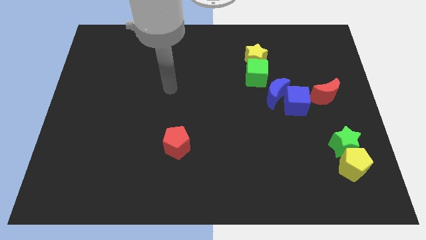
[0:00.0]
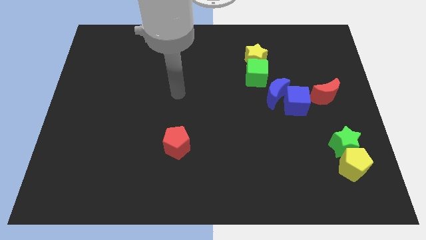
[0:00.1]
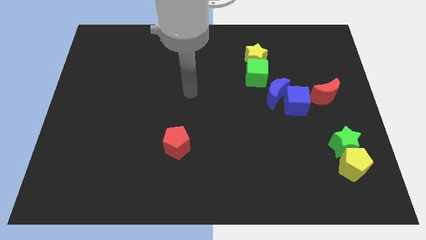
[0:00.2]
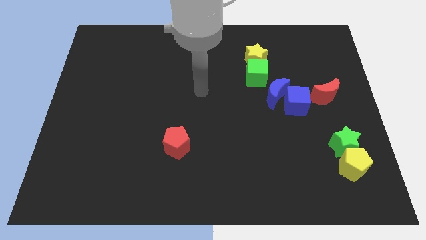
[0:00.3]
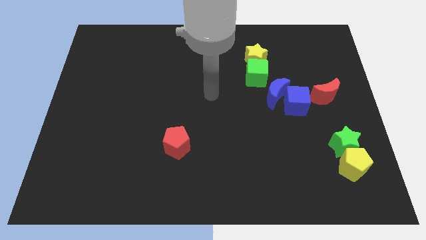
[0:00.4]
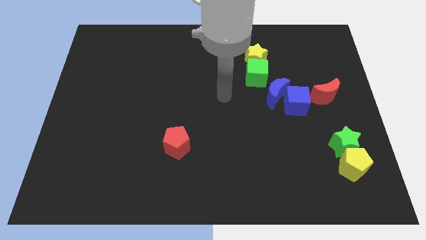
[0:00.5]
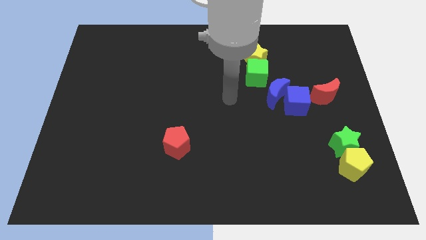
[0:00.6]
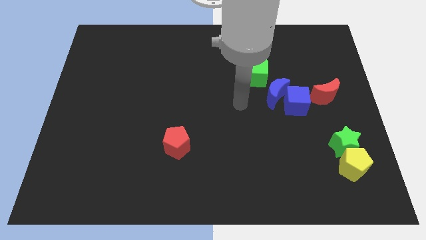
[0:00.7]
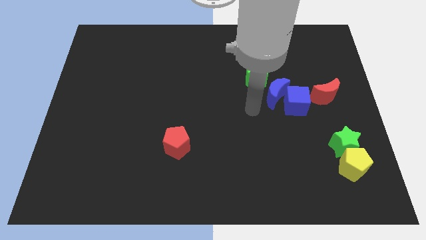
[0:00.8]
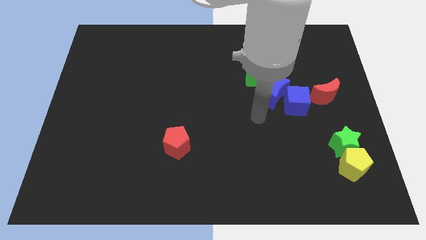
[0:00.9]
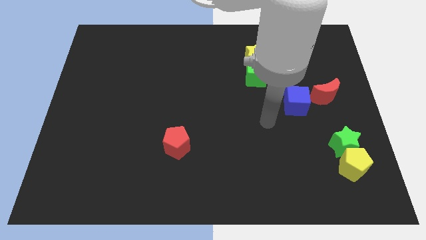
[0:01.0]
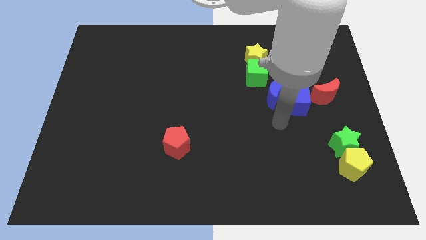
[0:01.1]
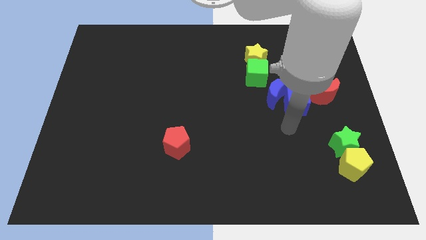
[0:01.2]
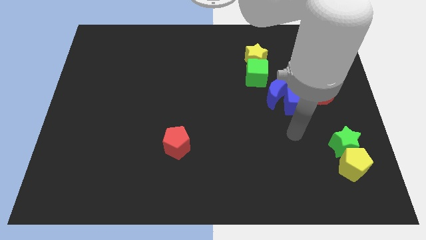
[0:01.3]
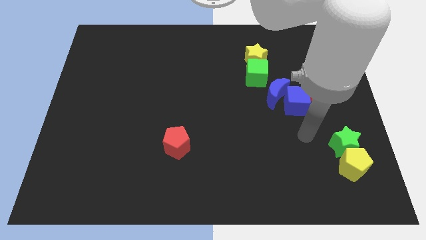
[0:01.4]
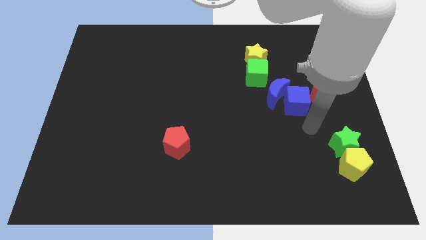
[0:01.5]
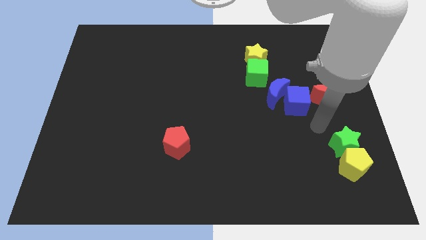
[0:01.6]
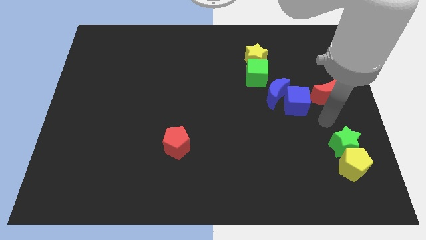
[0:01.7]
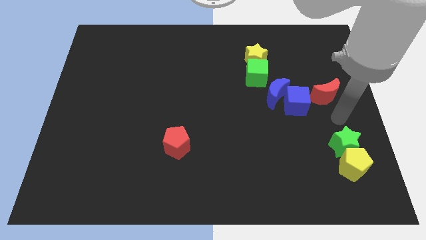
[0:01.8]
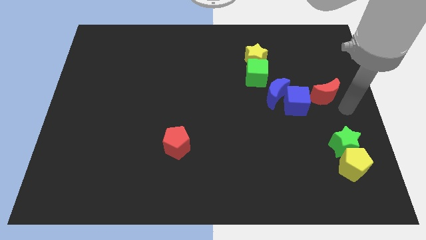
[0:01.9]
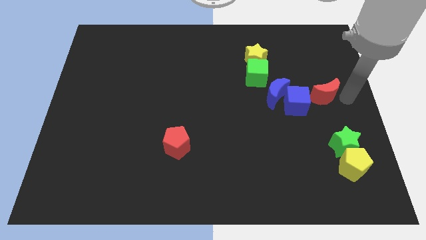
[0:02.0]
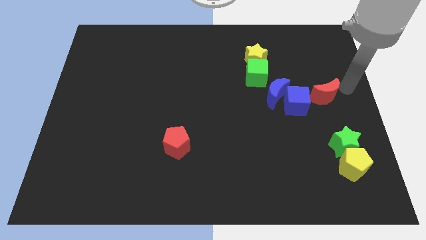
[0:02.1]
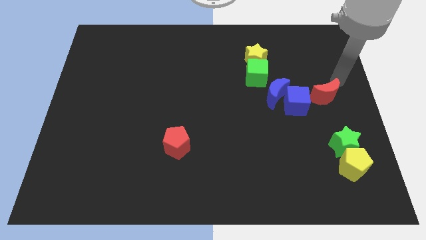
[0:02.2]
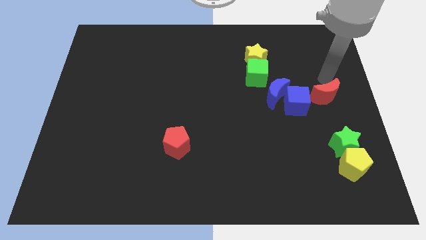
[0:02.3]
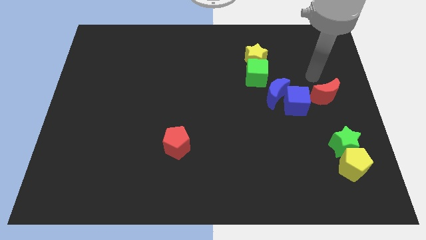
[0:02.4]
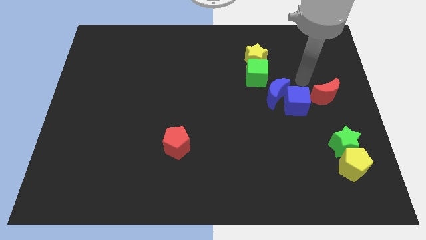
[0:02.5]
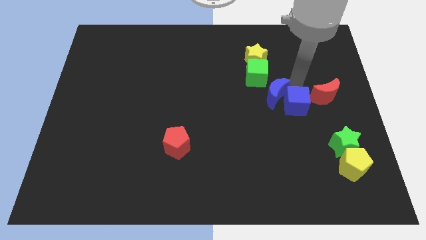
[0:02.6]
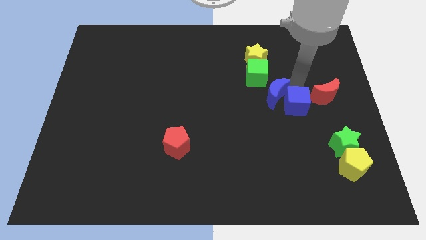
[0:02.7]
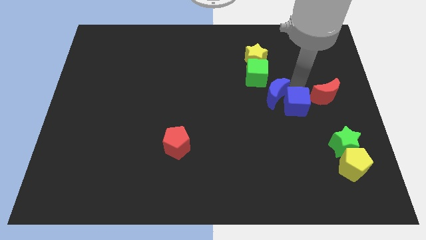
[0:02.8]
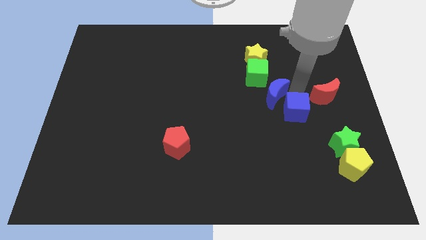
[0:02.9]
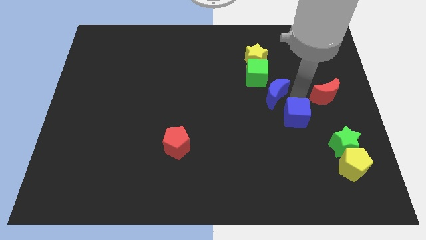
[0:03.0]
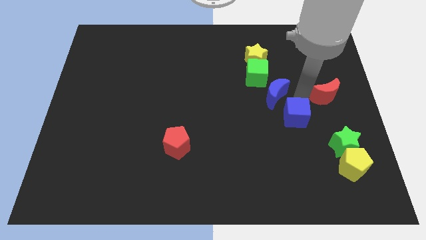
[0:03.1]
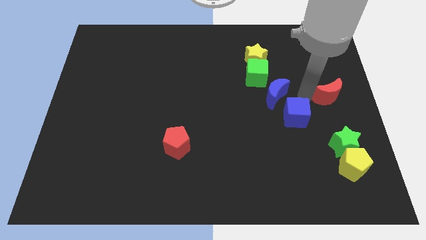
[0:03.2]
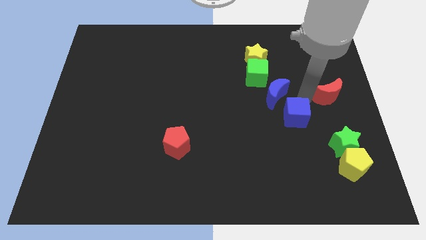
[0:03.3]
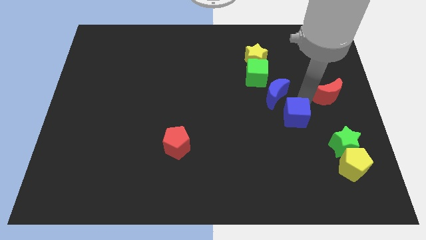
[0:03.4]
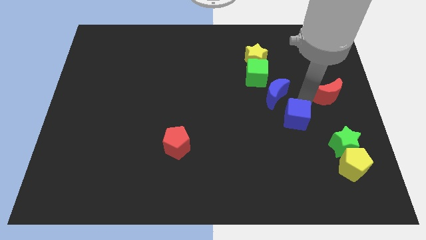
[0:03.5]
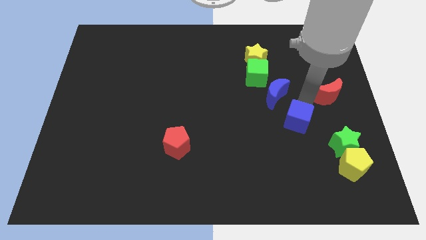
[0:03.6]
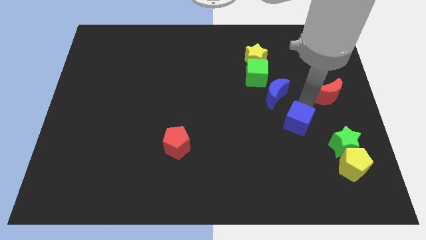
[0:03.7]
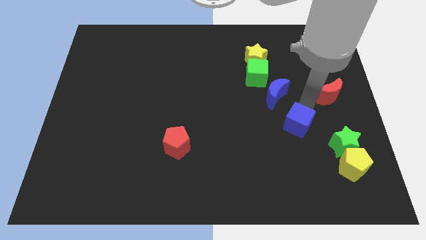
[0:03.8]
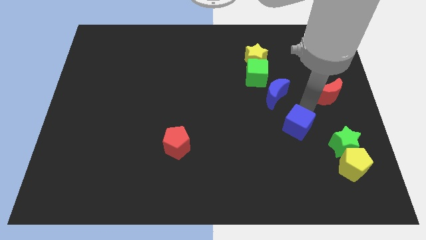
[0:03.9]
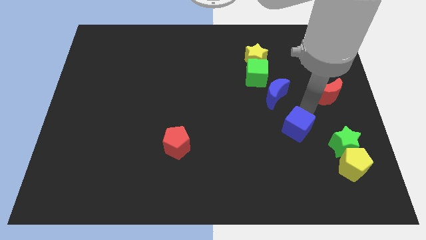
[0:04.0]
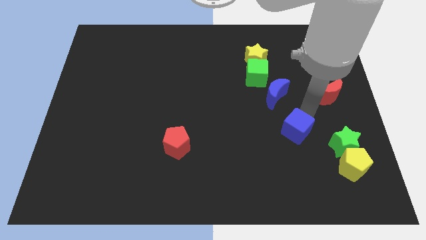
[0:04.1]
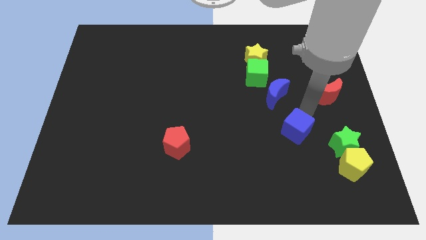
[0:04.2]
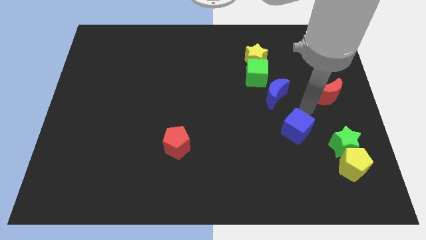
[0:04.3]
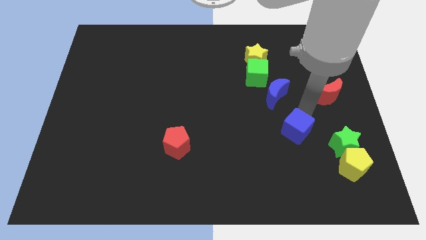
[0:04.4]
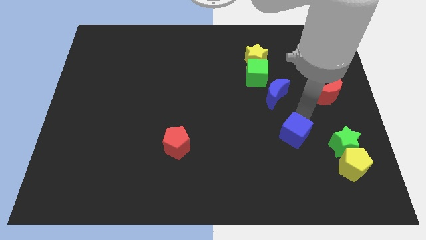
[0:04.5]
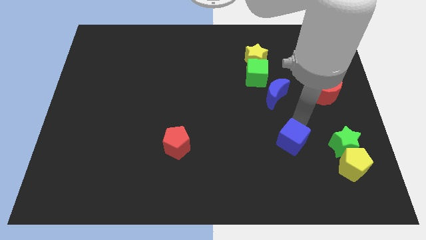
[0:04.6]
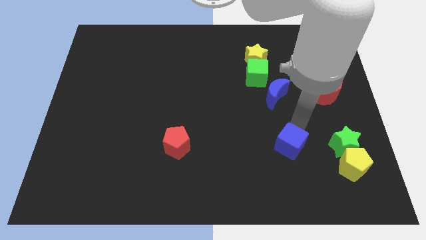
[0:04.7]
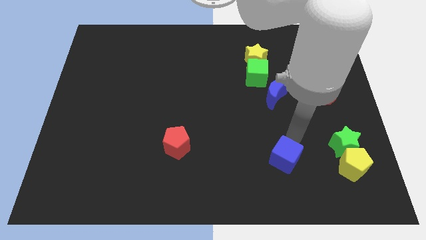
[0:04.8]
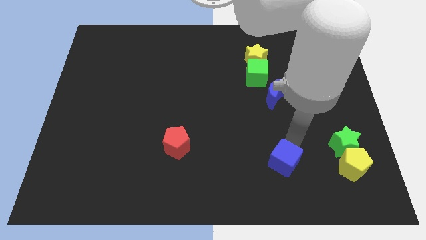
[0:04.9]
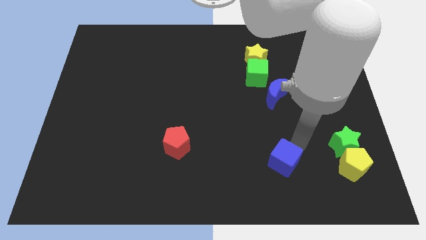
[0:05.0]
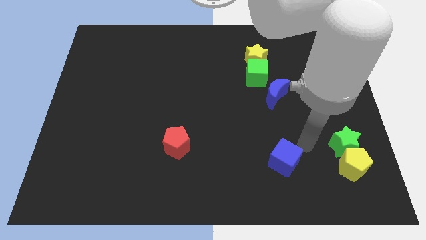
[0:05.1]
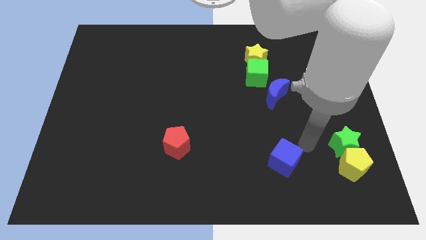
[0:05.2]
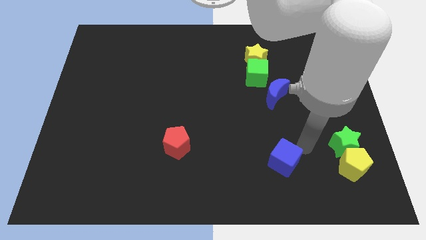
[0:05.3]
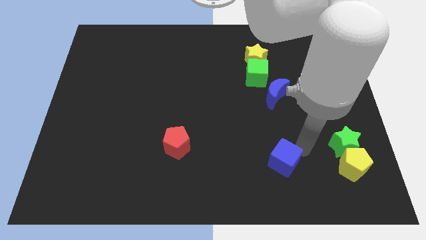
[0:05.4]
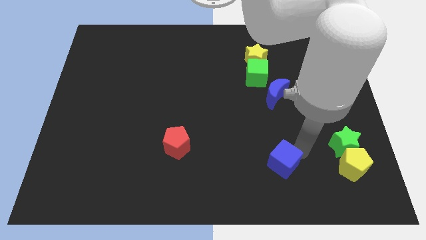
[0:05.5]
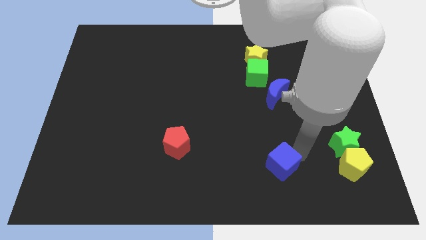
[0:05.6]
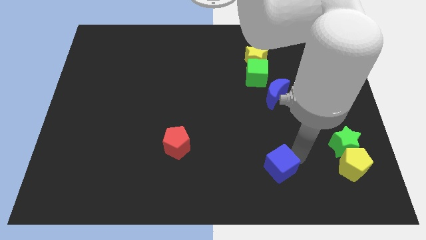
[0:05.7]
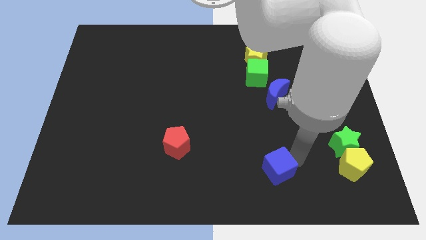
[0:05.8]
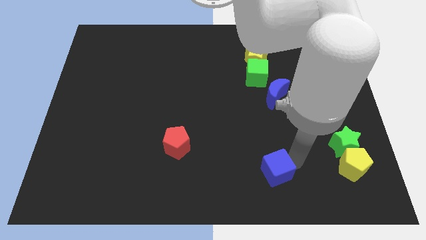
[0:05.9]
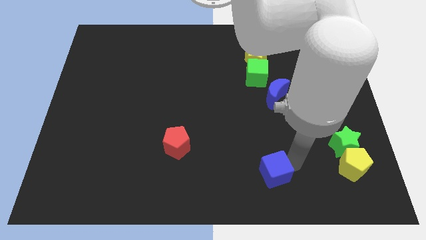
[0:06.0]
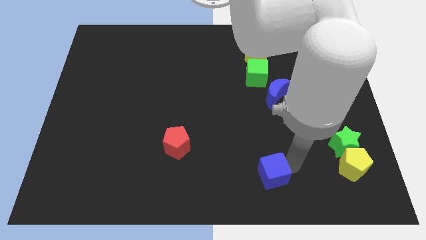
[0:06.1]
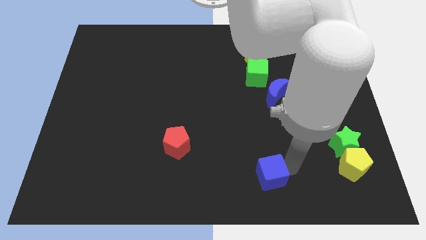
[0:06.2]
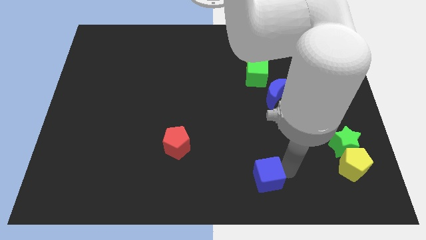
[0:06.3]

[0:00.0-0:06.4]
put the blue cube to the bottom side

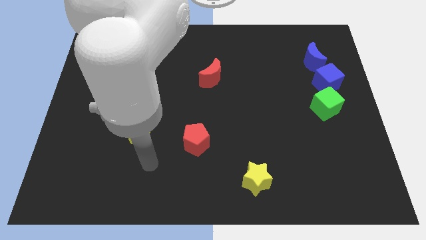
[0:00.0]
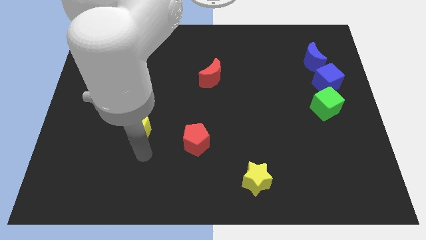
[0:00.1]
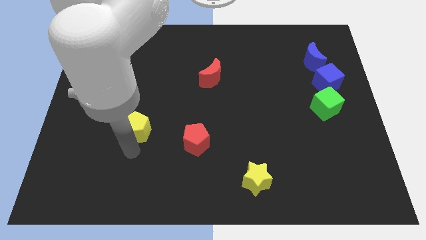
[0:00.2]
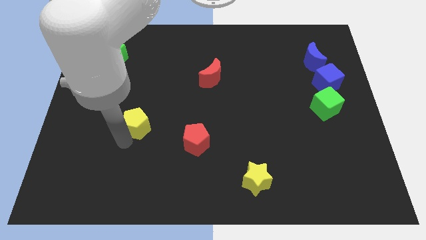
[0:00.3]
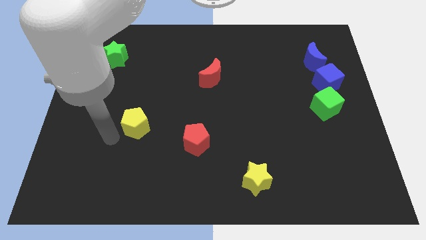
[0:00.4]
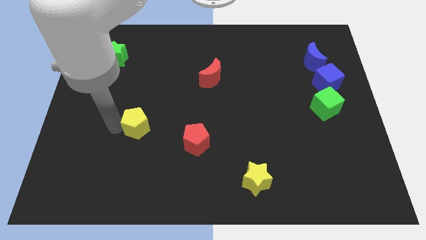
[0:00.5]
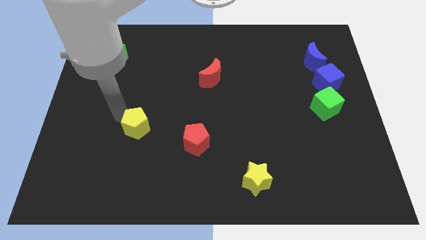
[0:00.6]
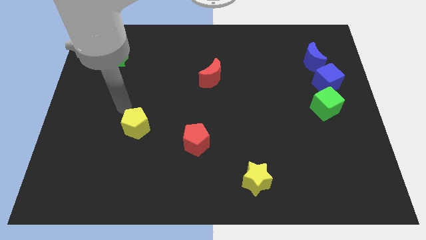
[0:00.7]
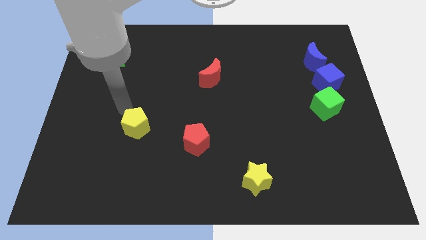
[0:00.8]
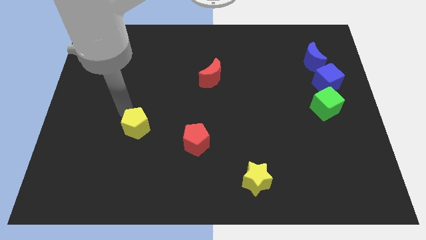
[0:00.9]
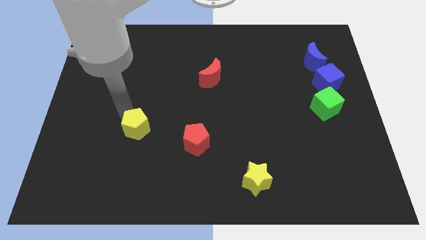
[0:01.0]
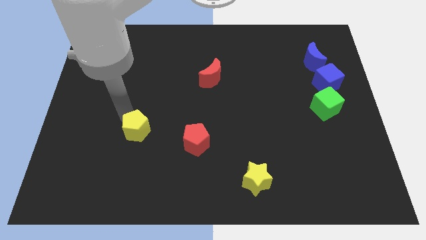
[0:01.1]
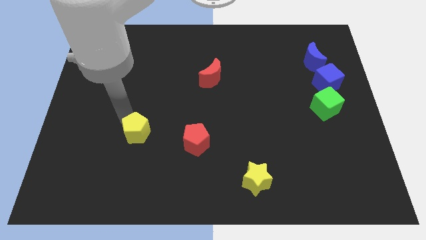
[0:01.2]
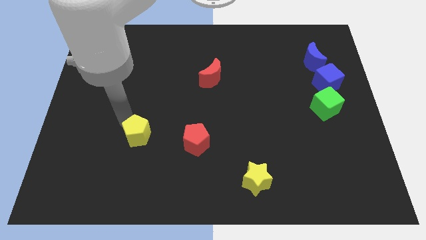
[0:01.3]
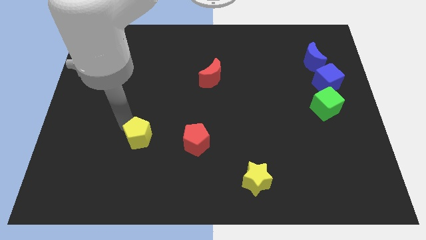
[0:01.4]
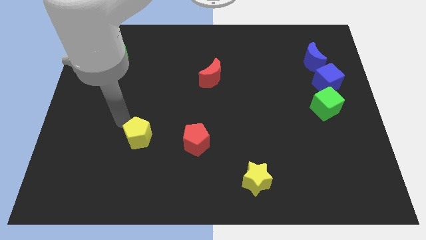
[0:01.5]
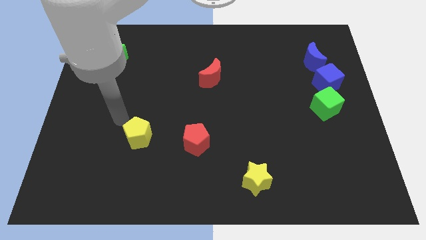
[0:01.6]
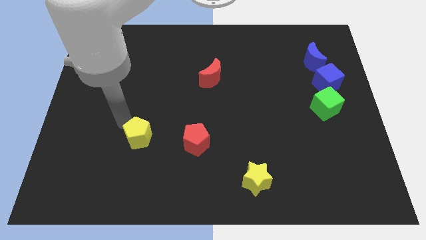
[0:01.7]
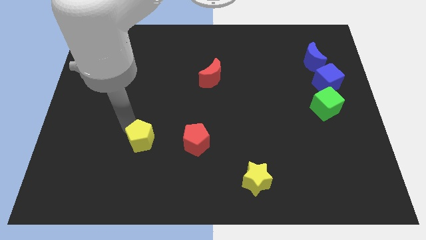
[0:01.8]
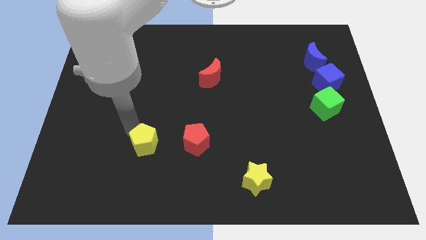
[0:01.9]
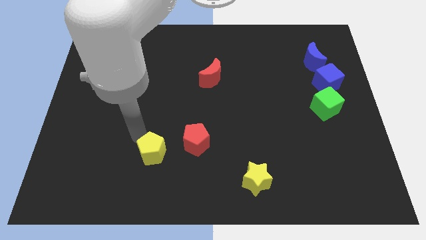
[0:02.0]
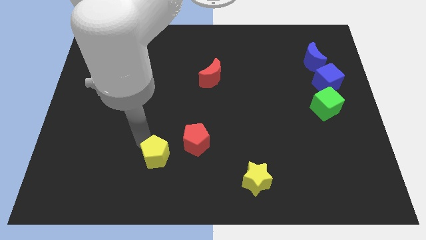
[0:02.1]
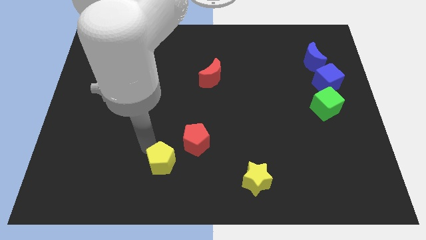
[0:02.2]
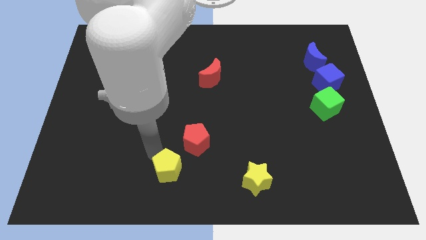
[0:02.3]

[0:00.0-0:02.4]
put the yellow pentagon to the bottom side

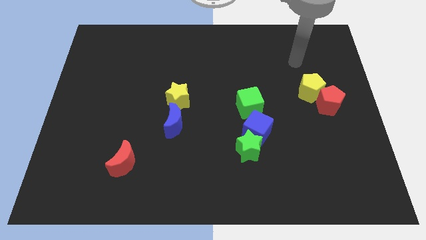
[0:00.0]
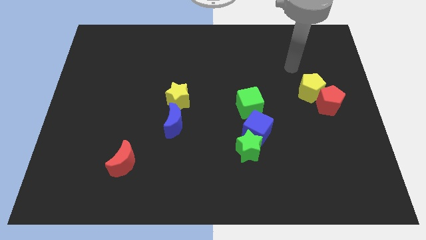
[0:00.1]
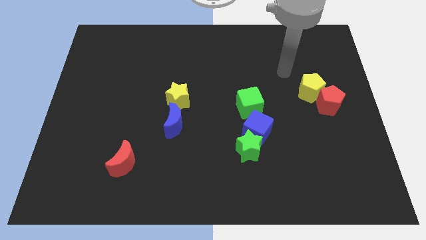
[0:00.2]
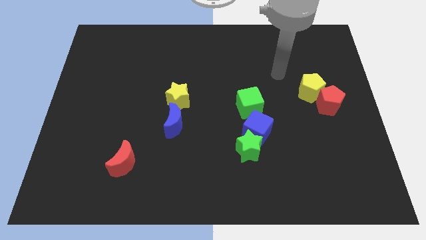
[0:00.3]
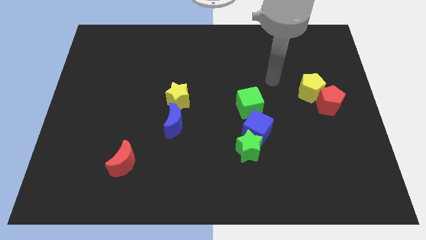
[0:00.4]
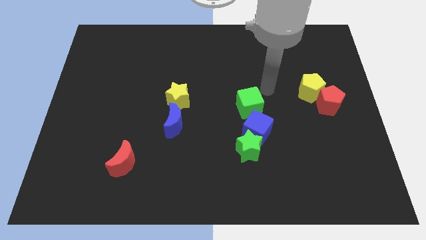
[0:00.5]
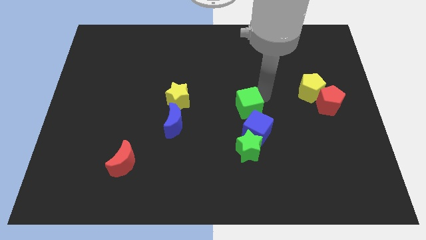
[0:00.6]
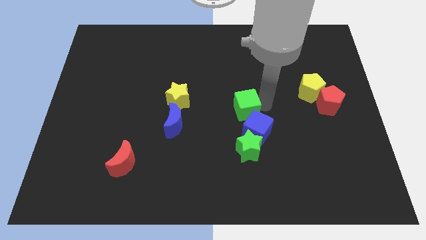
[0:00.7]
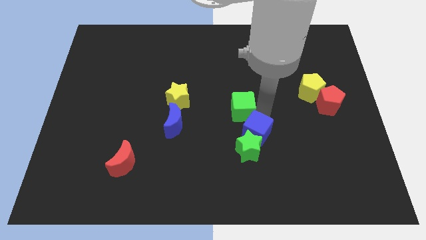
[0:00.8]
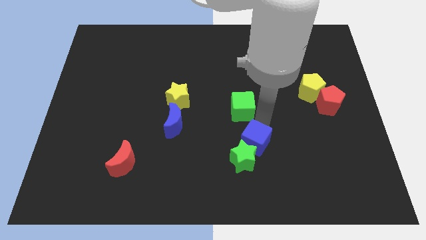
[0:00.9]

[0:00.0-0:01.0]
slide the green star to the bottom
